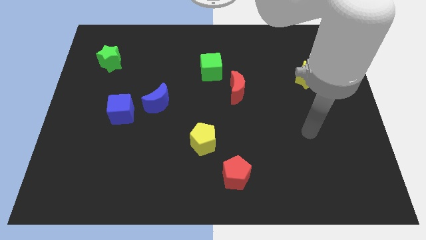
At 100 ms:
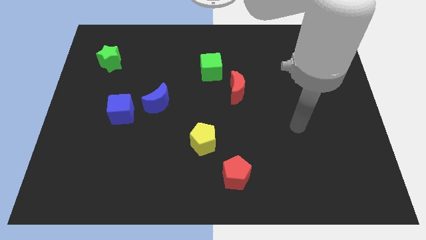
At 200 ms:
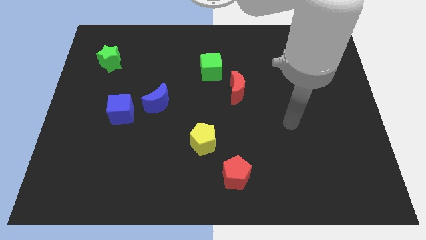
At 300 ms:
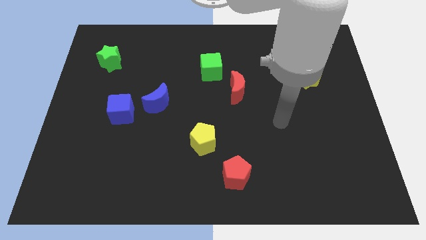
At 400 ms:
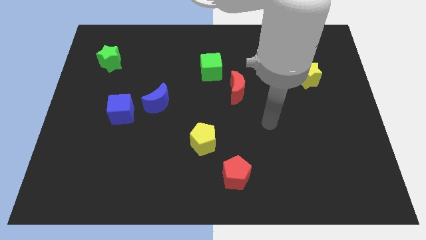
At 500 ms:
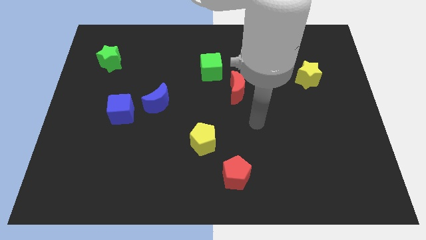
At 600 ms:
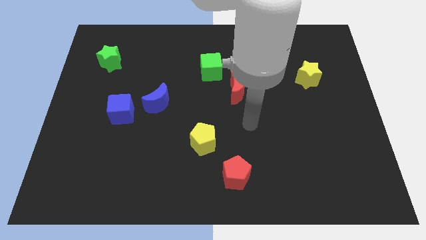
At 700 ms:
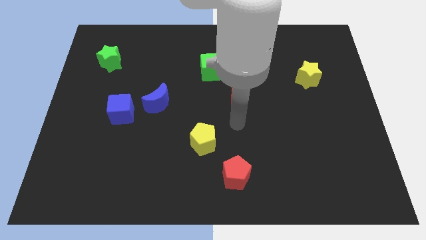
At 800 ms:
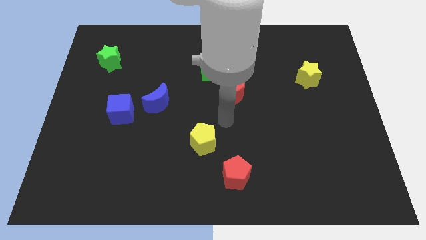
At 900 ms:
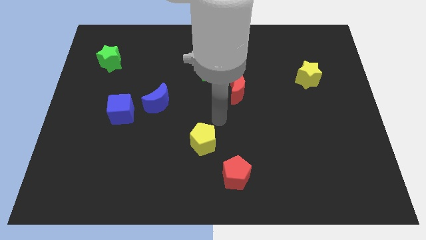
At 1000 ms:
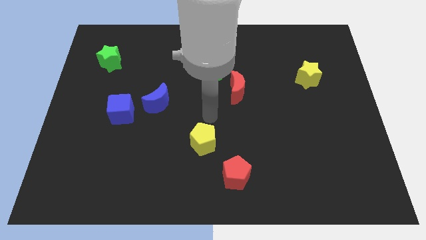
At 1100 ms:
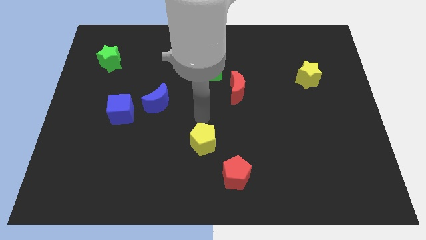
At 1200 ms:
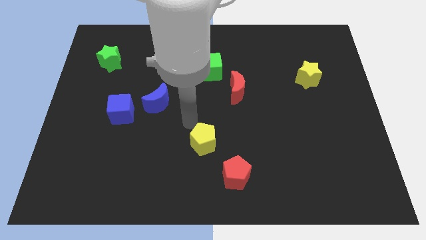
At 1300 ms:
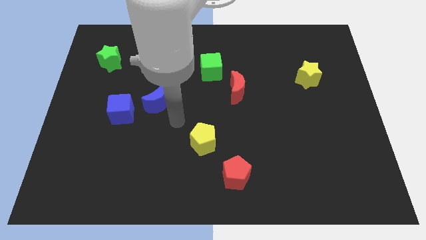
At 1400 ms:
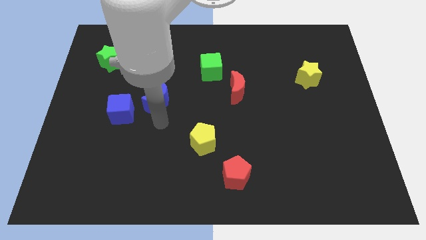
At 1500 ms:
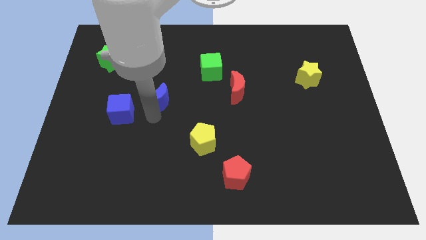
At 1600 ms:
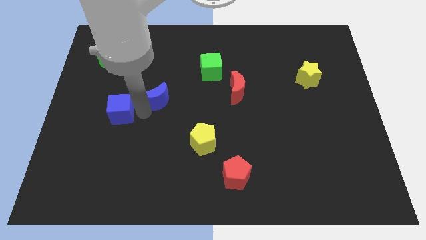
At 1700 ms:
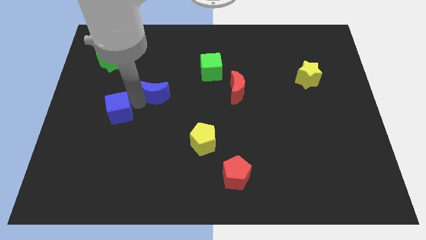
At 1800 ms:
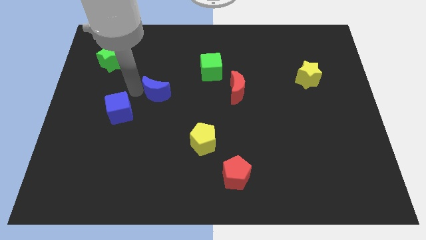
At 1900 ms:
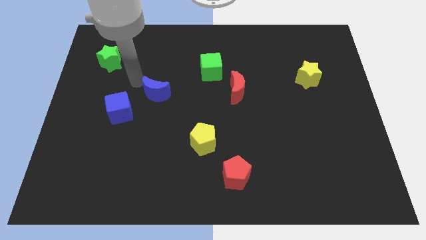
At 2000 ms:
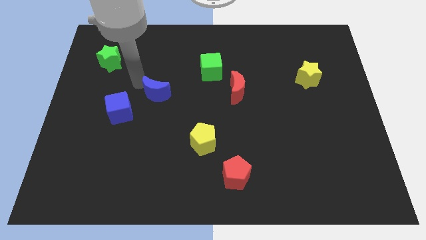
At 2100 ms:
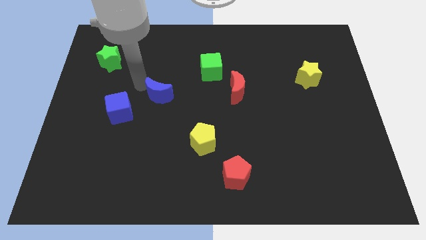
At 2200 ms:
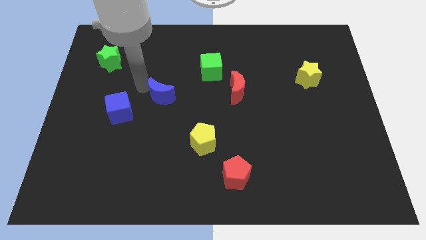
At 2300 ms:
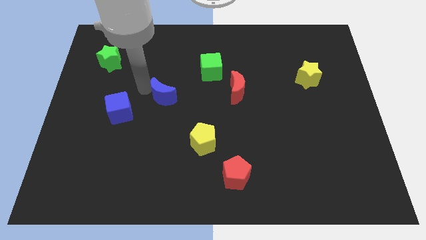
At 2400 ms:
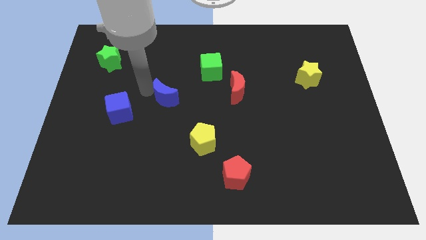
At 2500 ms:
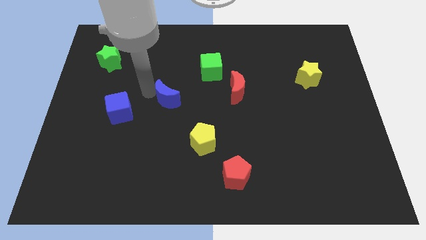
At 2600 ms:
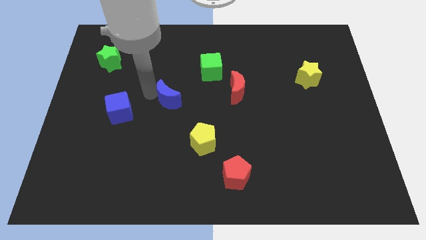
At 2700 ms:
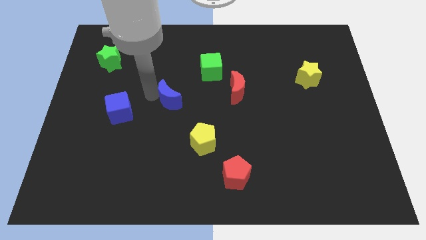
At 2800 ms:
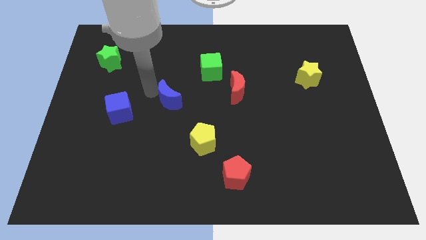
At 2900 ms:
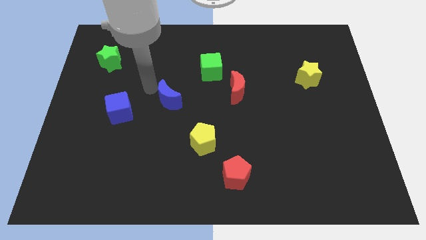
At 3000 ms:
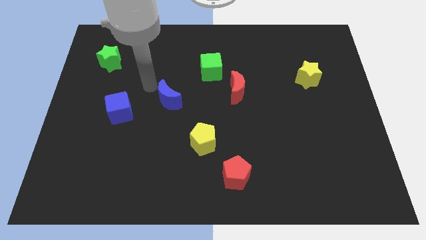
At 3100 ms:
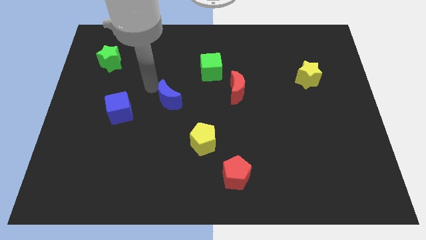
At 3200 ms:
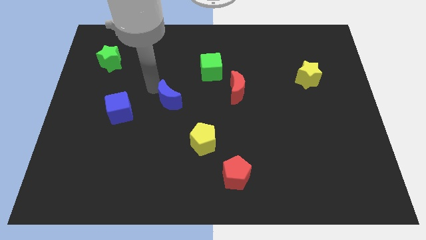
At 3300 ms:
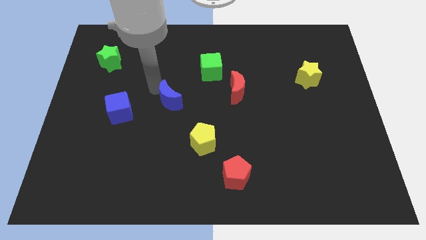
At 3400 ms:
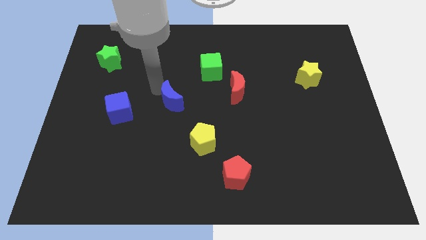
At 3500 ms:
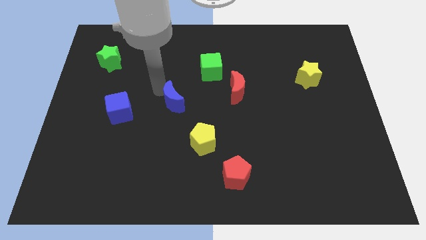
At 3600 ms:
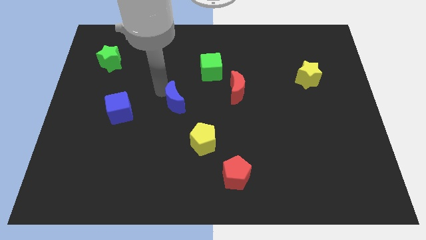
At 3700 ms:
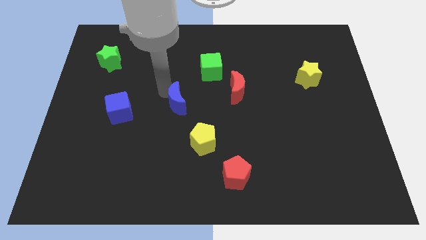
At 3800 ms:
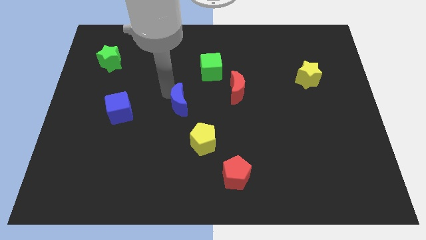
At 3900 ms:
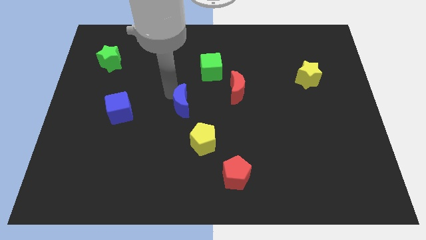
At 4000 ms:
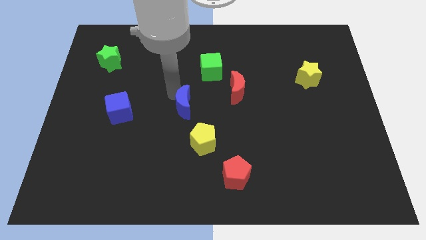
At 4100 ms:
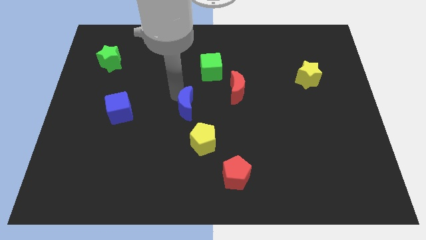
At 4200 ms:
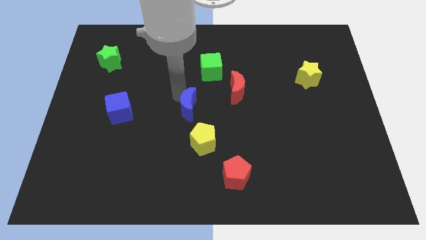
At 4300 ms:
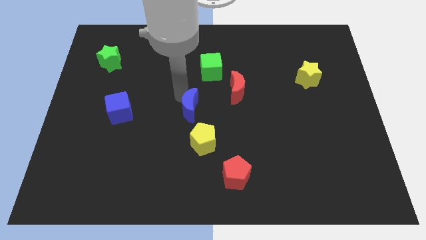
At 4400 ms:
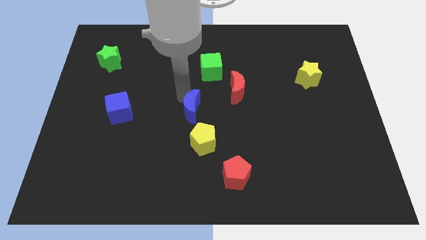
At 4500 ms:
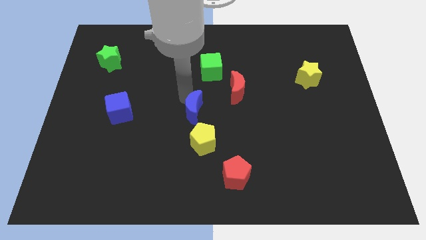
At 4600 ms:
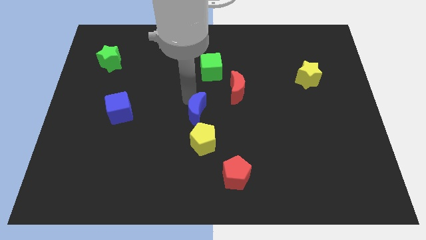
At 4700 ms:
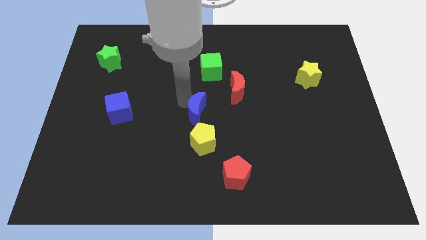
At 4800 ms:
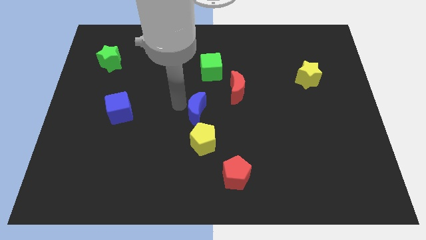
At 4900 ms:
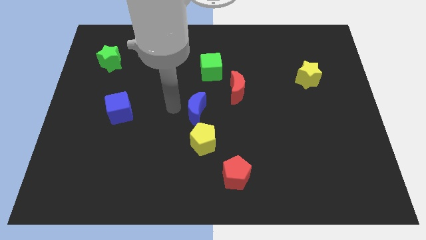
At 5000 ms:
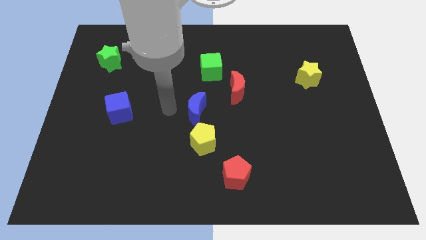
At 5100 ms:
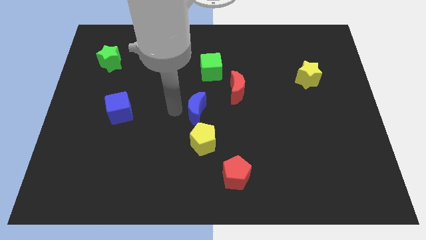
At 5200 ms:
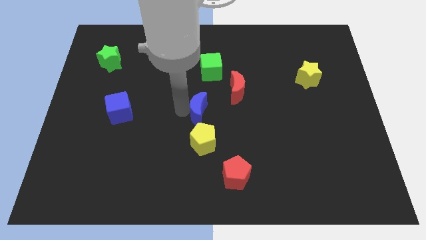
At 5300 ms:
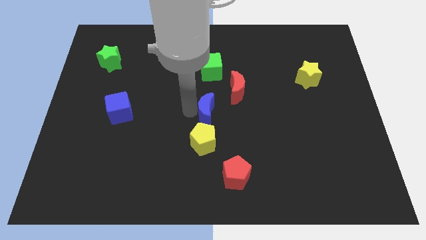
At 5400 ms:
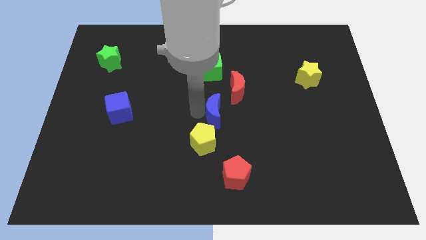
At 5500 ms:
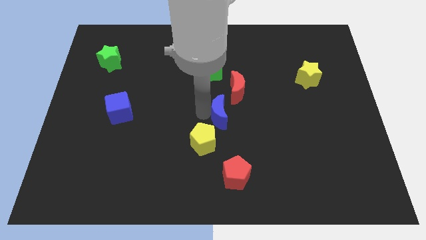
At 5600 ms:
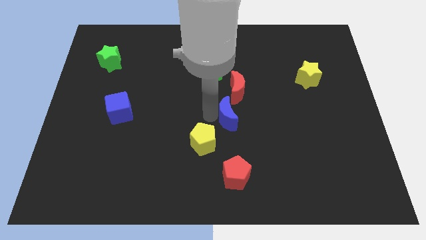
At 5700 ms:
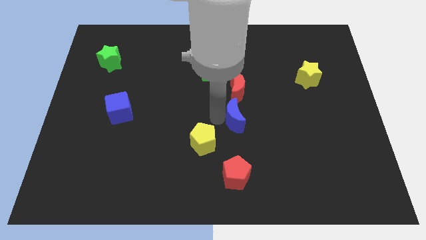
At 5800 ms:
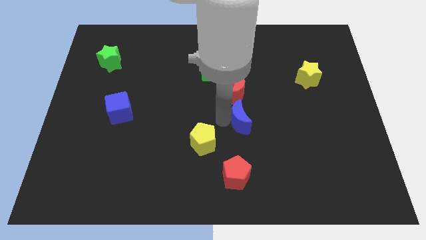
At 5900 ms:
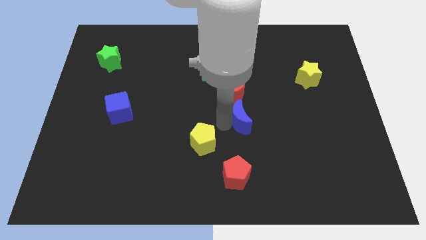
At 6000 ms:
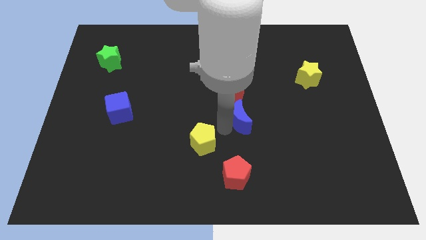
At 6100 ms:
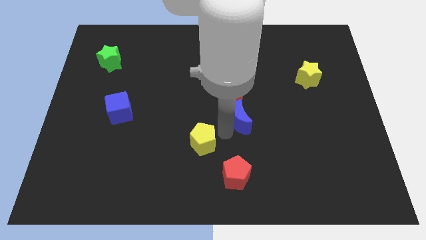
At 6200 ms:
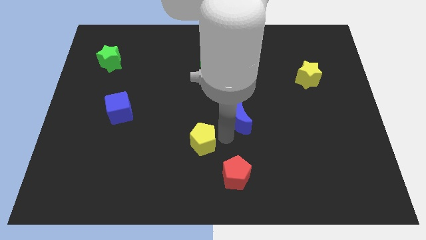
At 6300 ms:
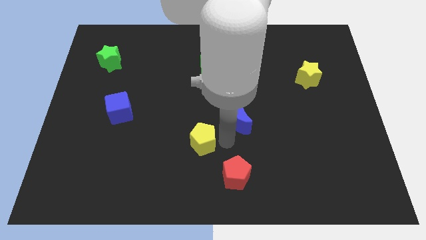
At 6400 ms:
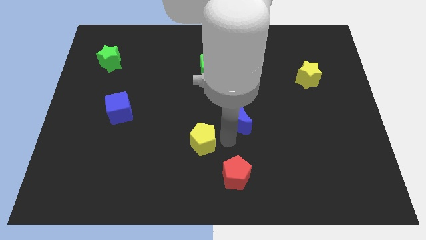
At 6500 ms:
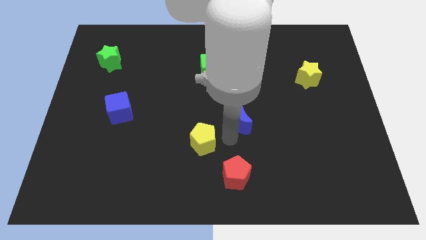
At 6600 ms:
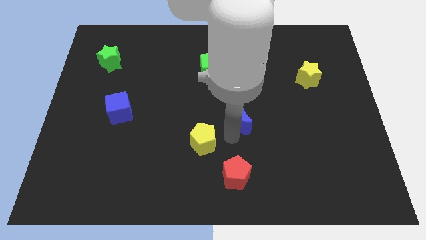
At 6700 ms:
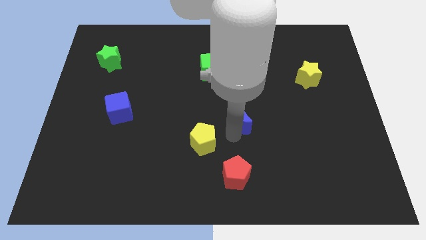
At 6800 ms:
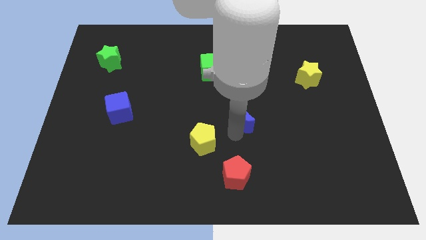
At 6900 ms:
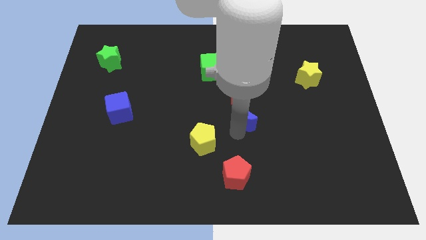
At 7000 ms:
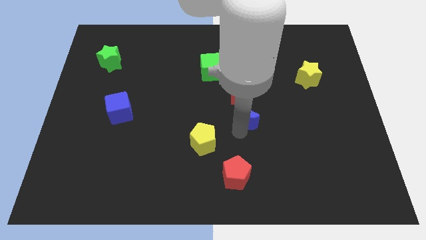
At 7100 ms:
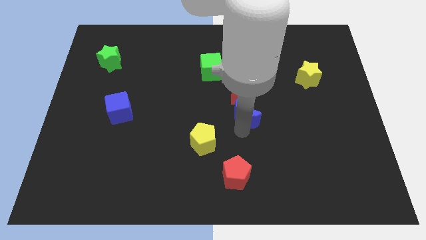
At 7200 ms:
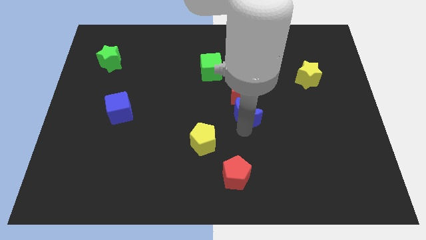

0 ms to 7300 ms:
slide the blue moon to the right

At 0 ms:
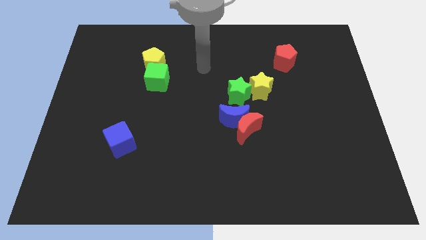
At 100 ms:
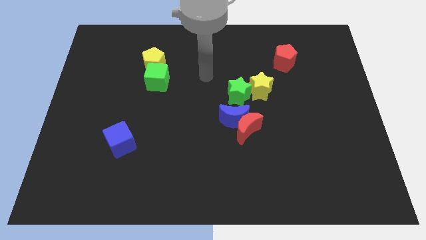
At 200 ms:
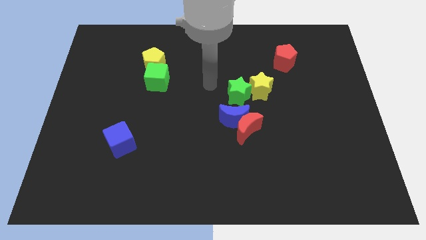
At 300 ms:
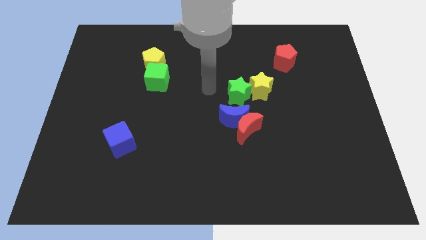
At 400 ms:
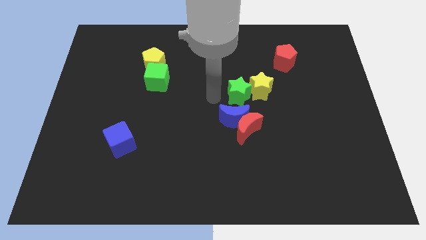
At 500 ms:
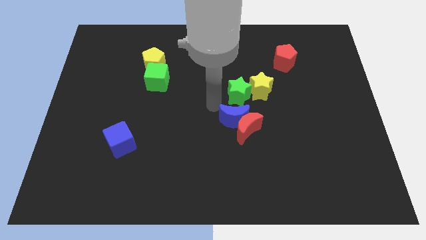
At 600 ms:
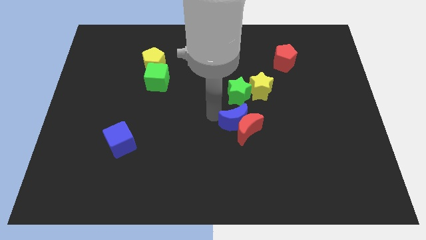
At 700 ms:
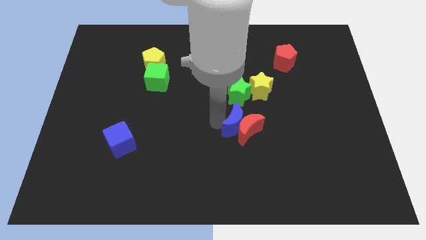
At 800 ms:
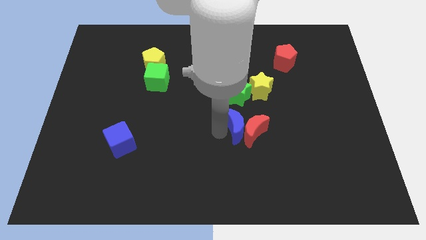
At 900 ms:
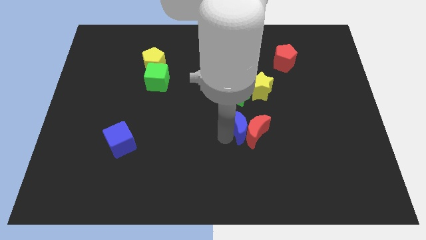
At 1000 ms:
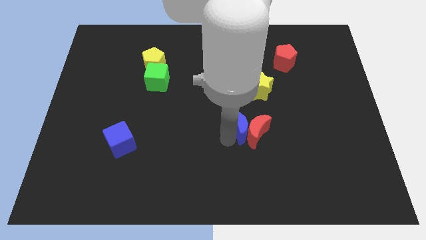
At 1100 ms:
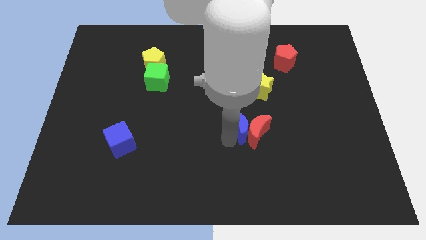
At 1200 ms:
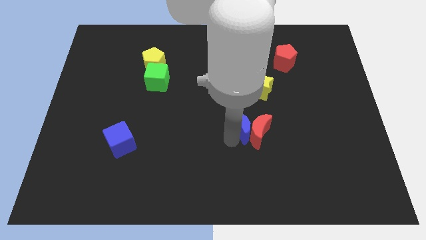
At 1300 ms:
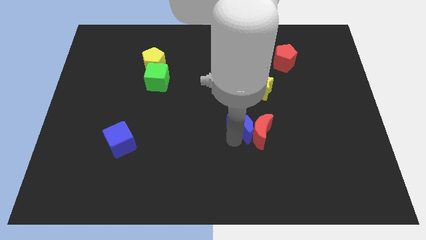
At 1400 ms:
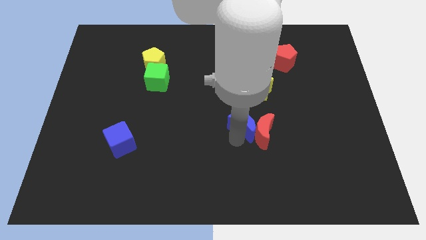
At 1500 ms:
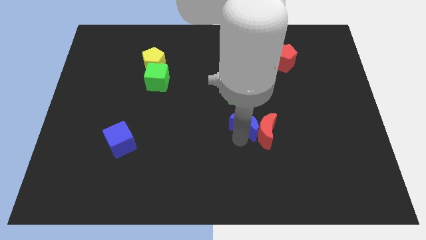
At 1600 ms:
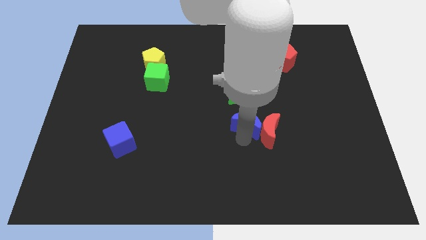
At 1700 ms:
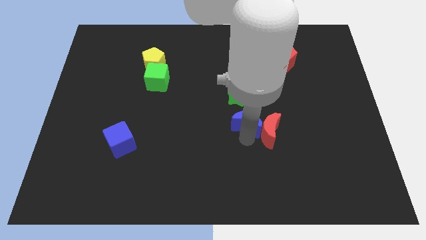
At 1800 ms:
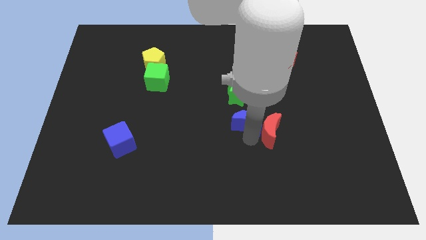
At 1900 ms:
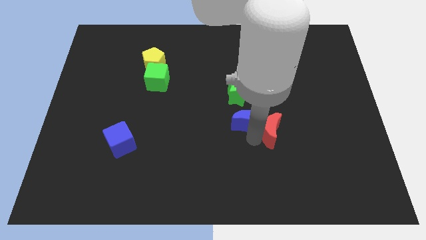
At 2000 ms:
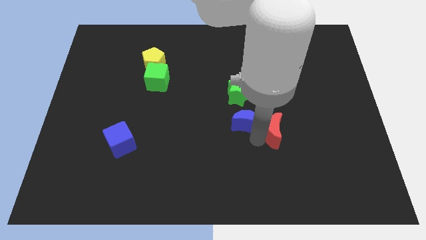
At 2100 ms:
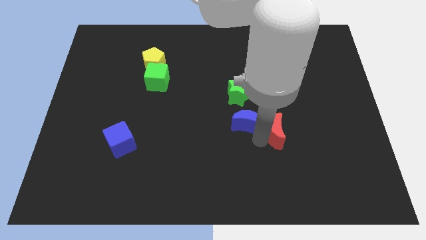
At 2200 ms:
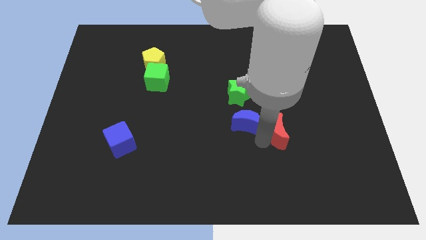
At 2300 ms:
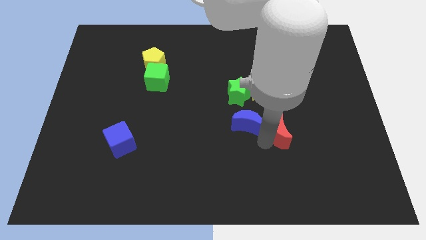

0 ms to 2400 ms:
slightly slide the red moon to the right
